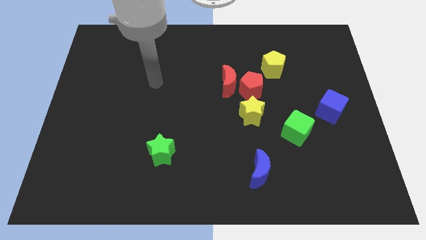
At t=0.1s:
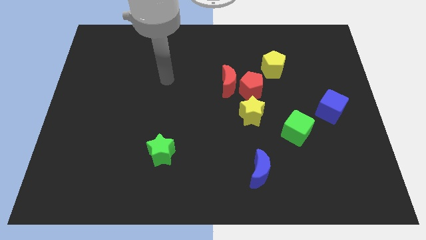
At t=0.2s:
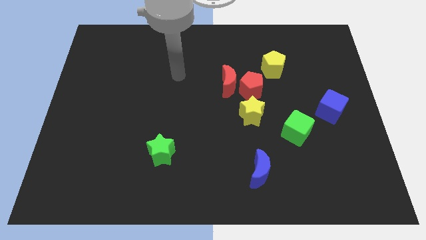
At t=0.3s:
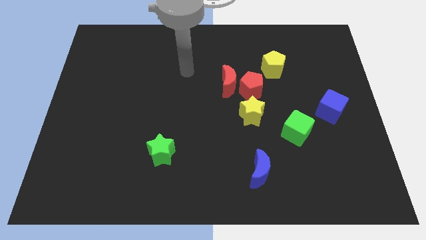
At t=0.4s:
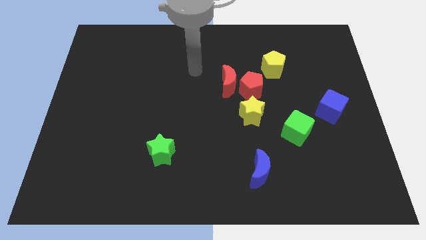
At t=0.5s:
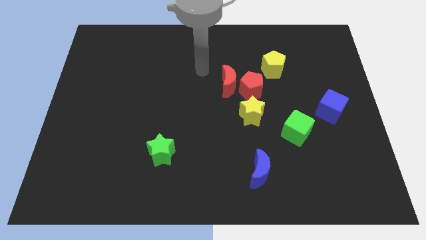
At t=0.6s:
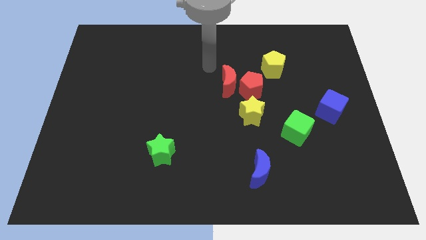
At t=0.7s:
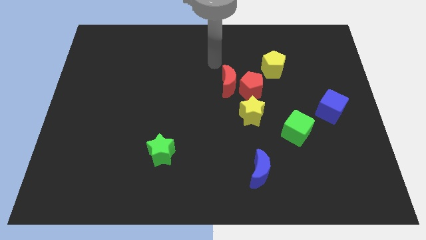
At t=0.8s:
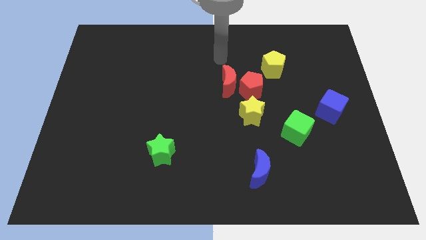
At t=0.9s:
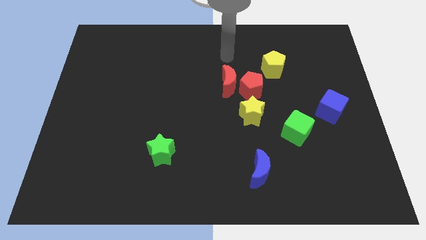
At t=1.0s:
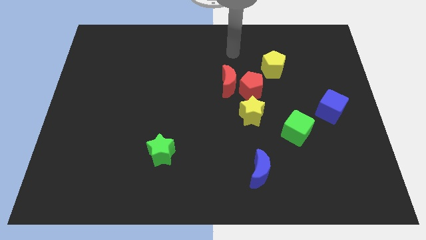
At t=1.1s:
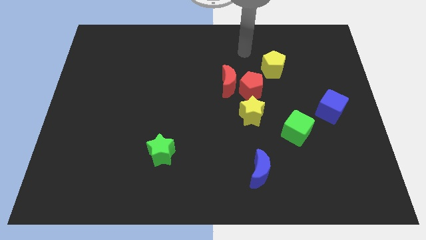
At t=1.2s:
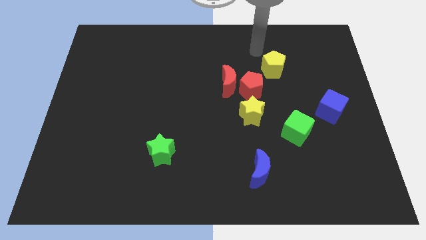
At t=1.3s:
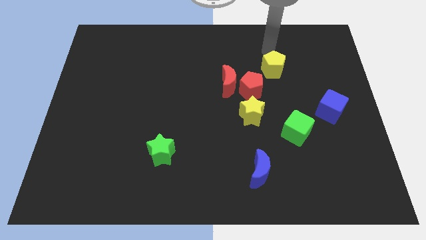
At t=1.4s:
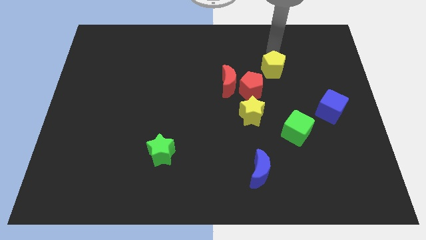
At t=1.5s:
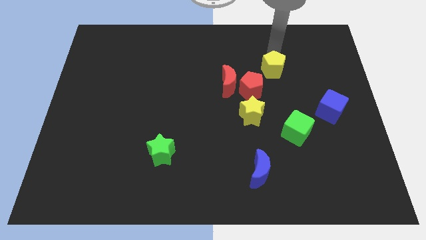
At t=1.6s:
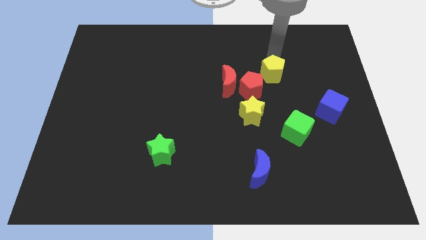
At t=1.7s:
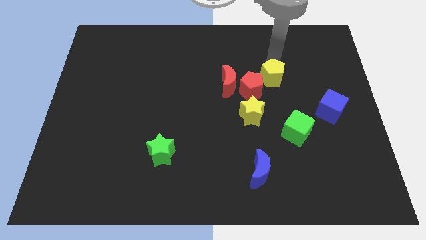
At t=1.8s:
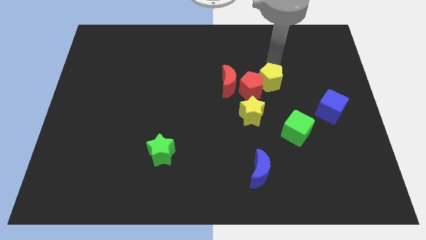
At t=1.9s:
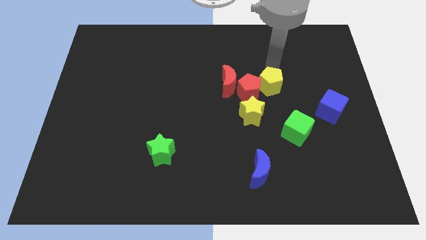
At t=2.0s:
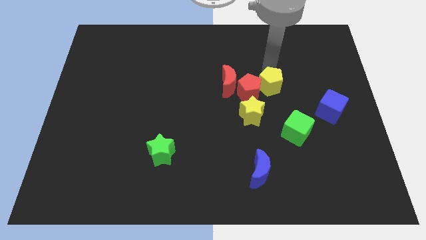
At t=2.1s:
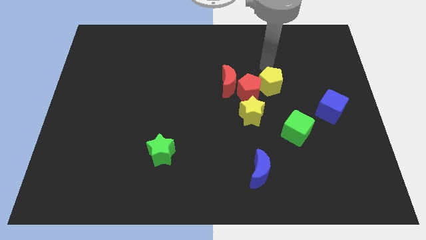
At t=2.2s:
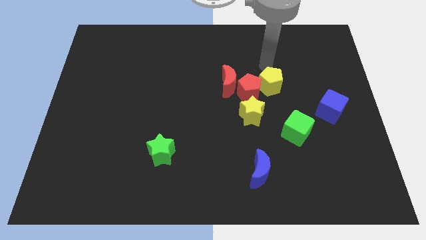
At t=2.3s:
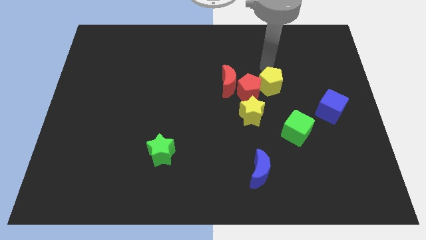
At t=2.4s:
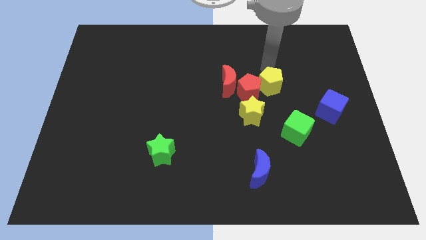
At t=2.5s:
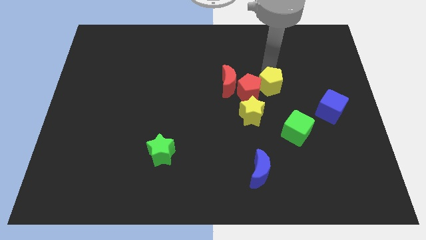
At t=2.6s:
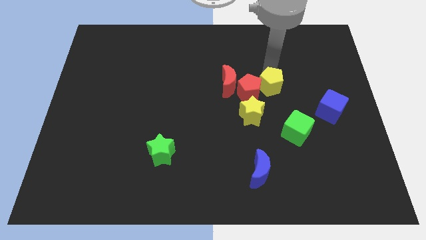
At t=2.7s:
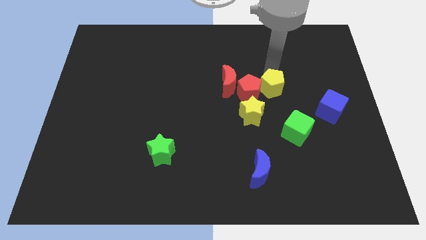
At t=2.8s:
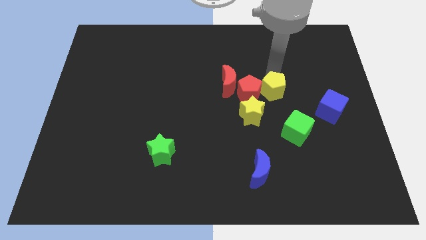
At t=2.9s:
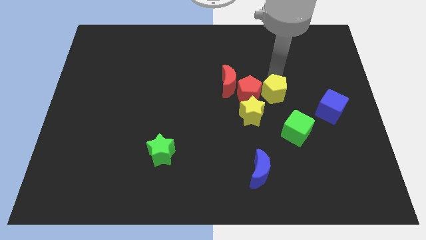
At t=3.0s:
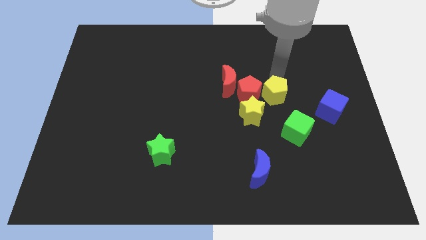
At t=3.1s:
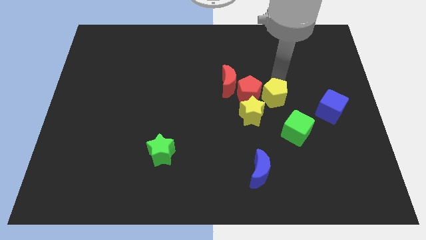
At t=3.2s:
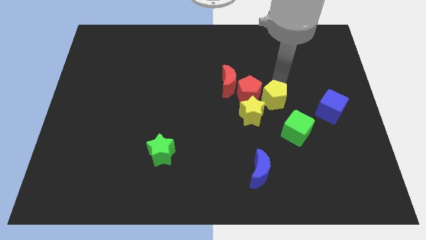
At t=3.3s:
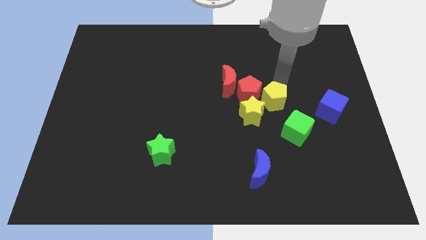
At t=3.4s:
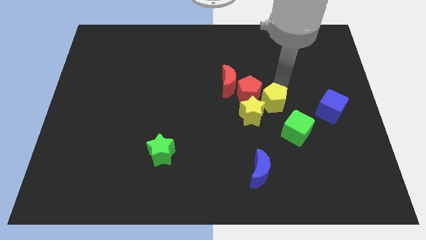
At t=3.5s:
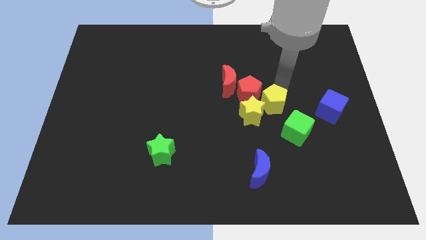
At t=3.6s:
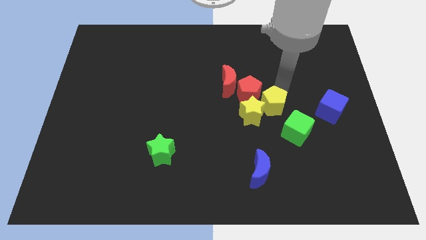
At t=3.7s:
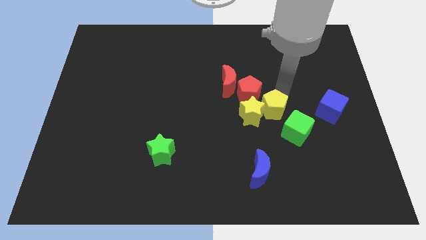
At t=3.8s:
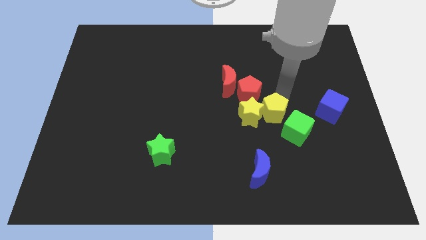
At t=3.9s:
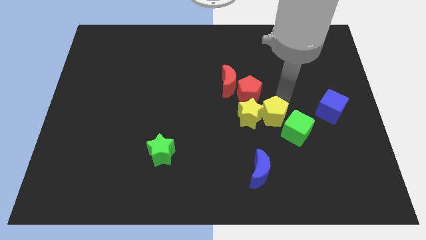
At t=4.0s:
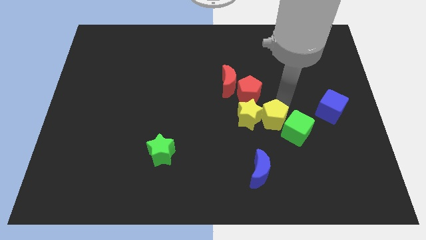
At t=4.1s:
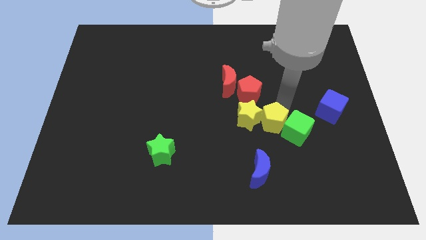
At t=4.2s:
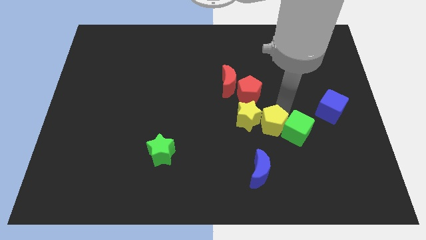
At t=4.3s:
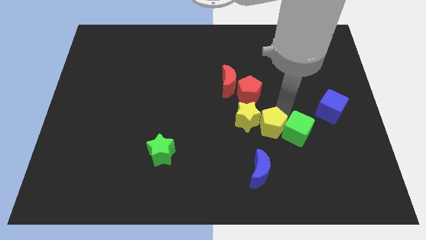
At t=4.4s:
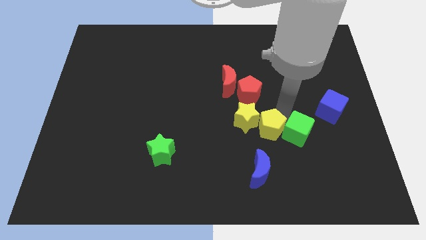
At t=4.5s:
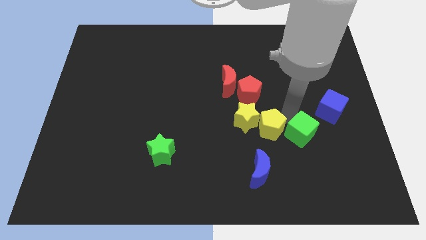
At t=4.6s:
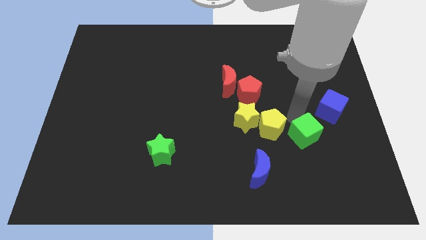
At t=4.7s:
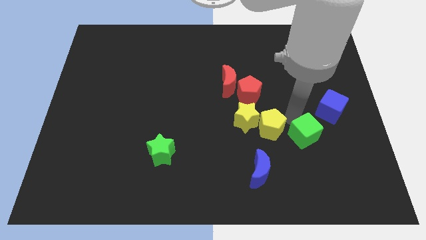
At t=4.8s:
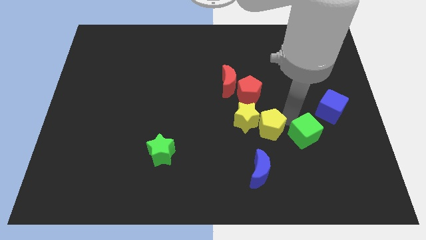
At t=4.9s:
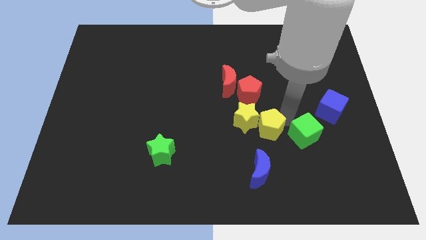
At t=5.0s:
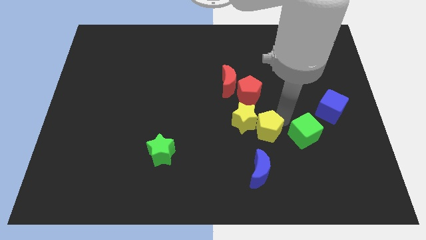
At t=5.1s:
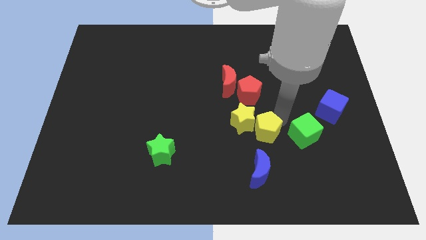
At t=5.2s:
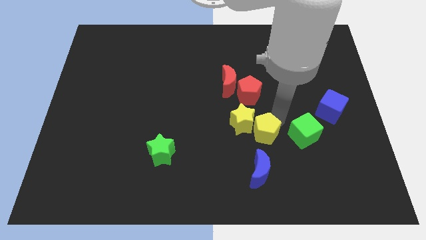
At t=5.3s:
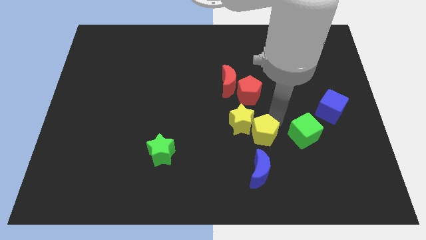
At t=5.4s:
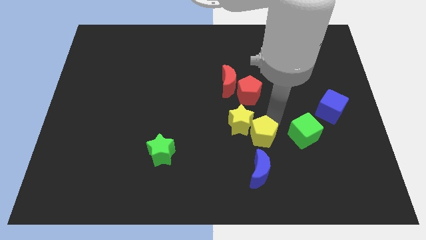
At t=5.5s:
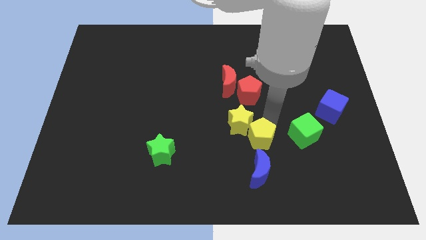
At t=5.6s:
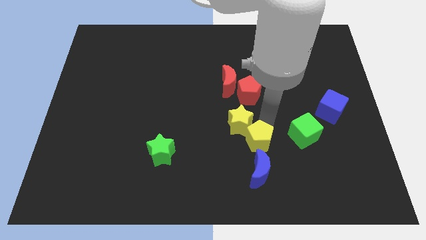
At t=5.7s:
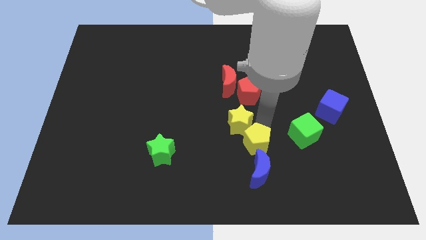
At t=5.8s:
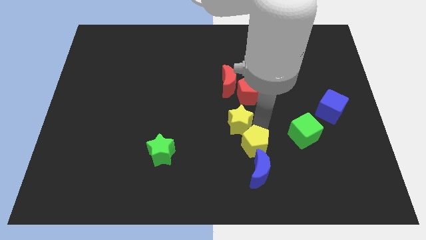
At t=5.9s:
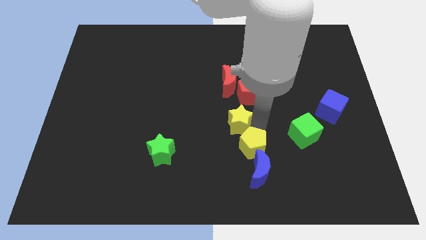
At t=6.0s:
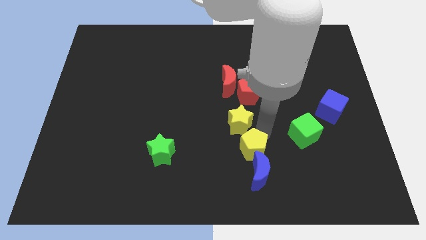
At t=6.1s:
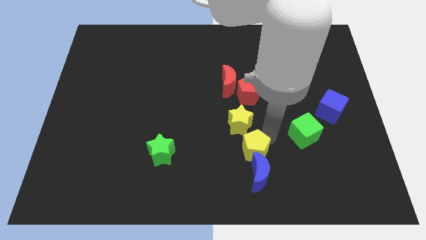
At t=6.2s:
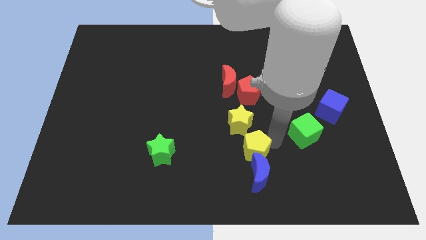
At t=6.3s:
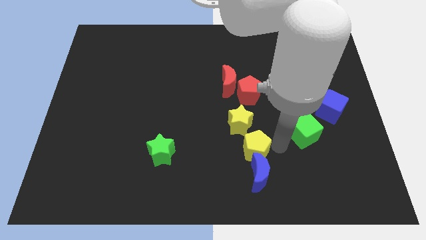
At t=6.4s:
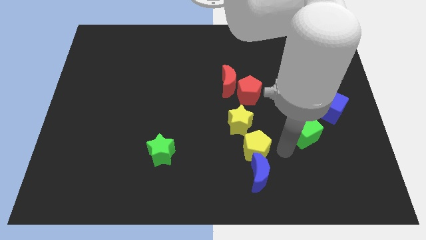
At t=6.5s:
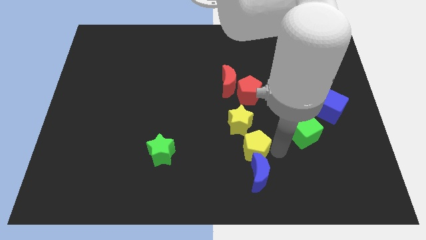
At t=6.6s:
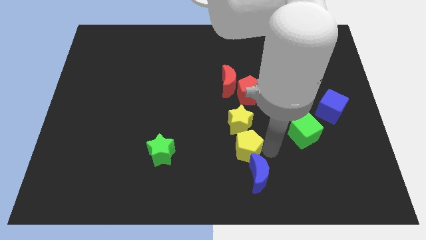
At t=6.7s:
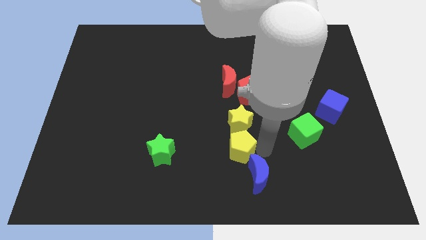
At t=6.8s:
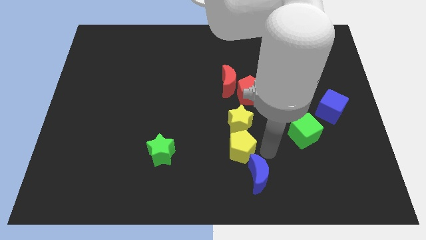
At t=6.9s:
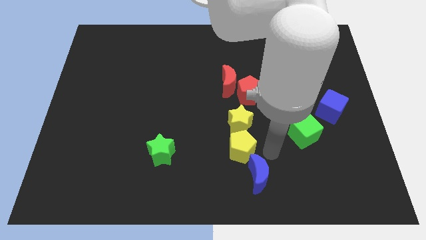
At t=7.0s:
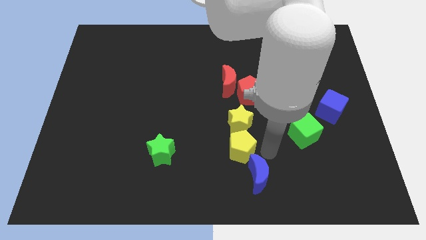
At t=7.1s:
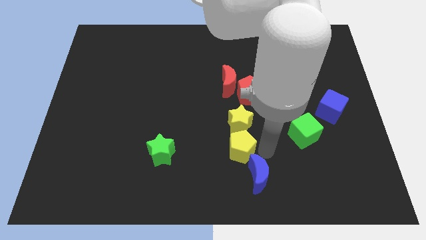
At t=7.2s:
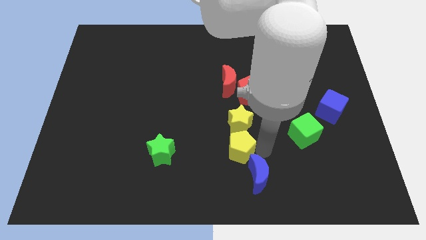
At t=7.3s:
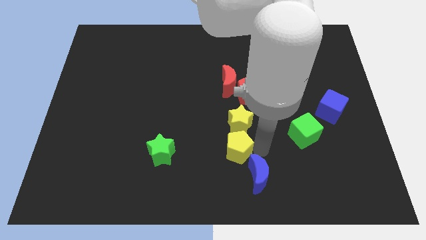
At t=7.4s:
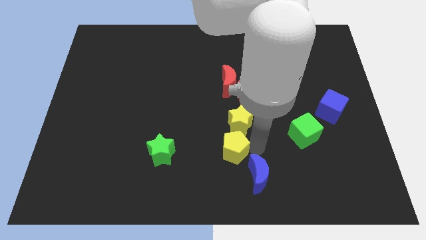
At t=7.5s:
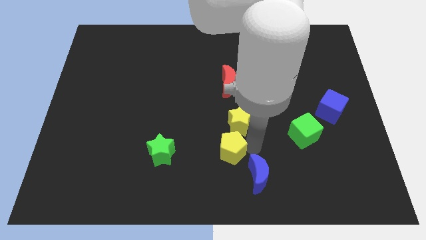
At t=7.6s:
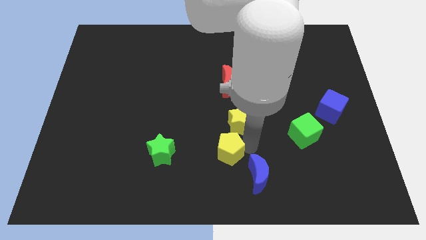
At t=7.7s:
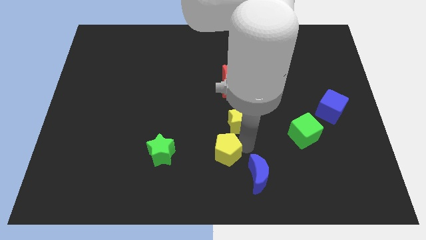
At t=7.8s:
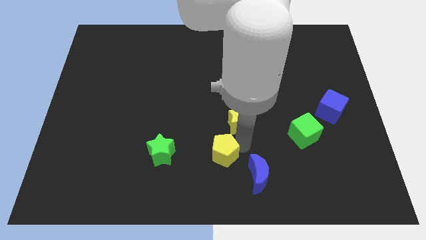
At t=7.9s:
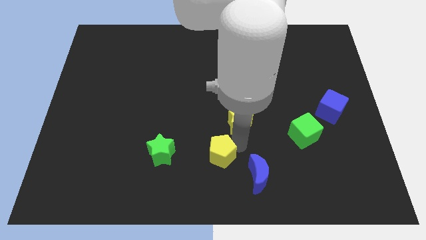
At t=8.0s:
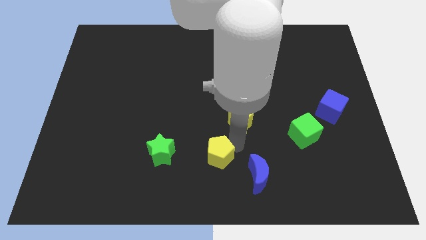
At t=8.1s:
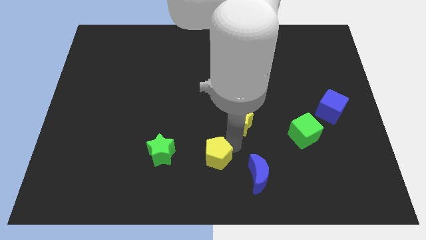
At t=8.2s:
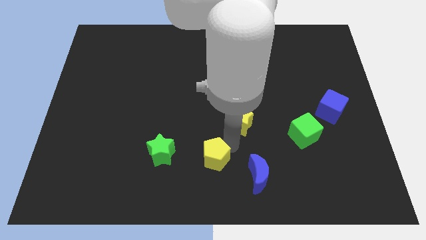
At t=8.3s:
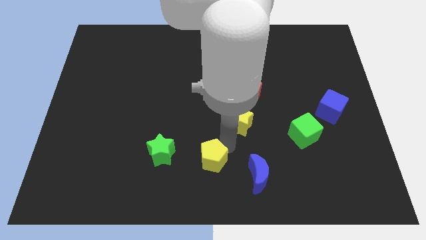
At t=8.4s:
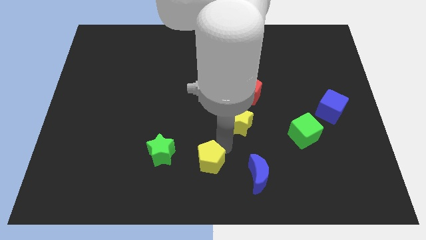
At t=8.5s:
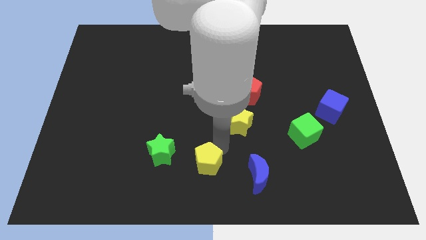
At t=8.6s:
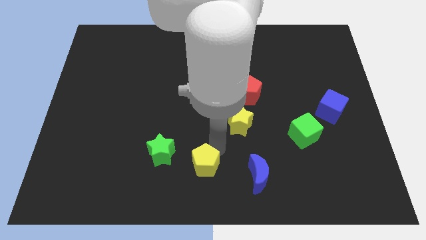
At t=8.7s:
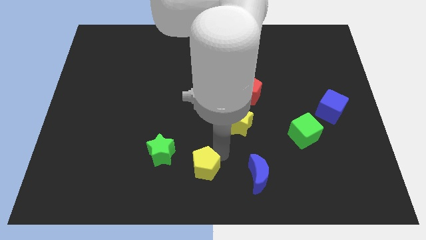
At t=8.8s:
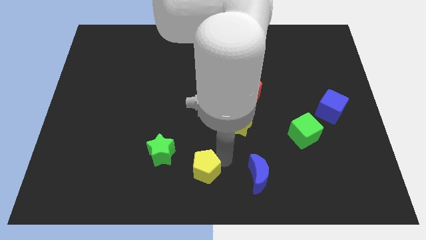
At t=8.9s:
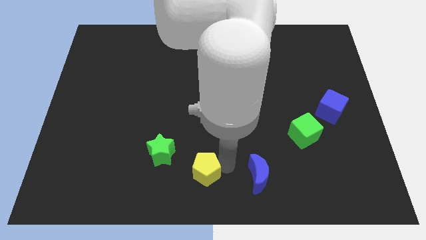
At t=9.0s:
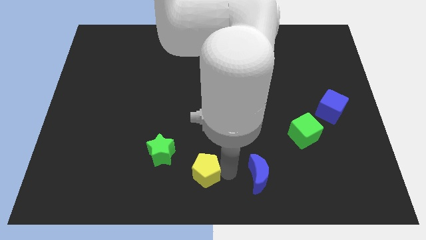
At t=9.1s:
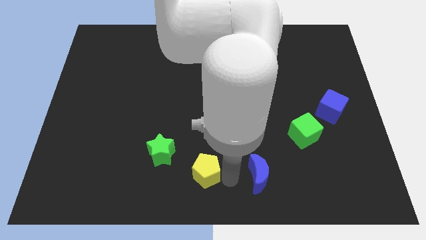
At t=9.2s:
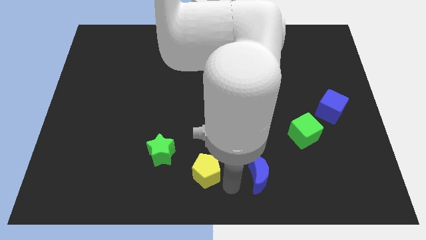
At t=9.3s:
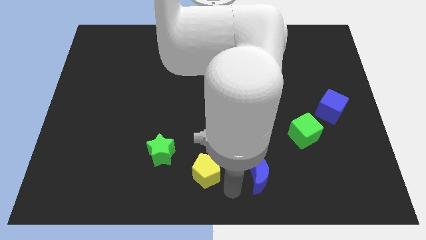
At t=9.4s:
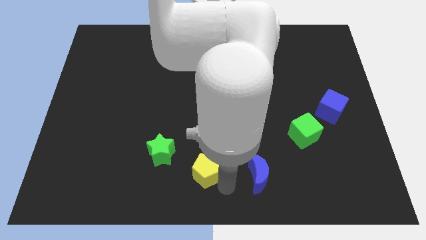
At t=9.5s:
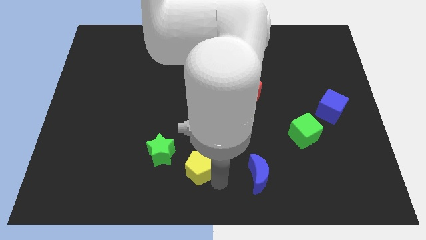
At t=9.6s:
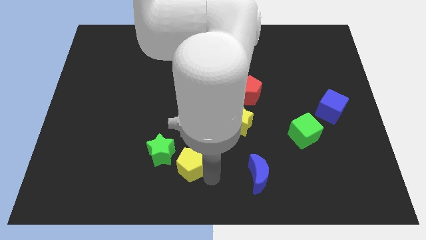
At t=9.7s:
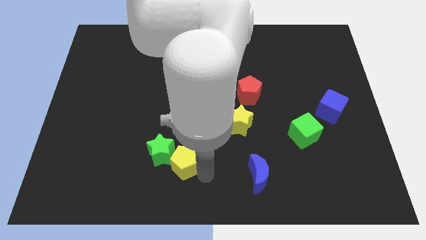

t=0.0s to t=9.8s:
move the yellow pentagon towards the green star
